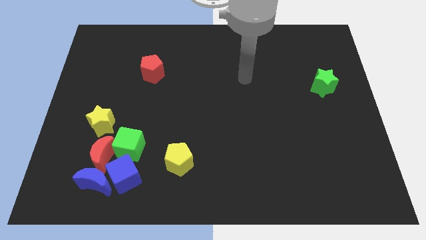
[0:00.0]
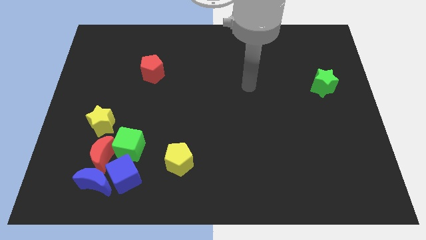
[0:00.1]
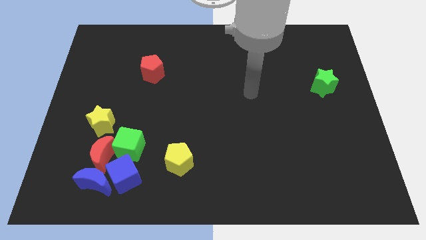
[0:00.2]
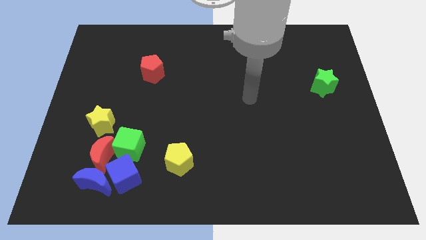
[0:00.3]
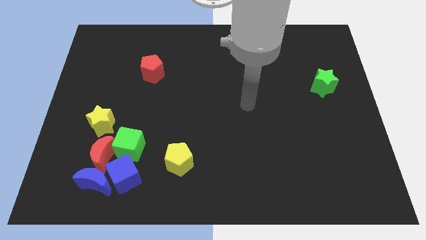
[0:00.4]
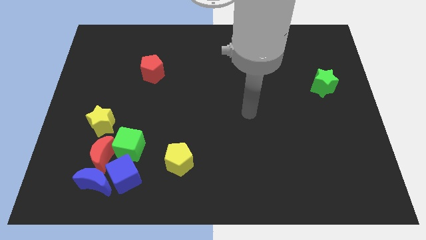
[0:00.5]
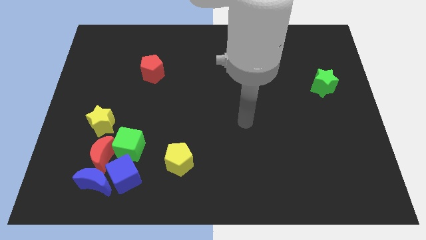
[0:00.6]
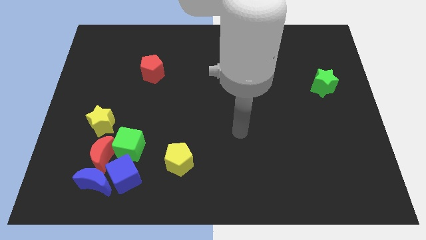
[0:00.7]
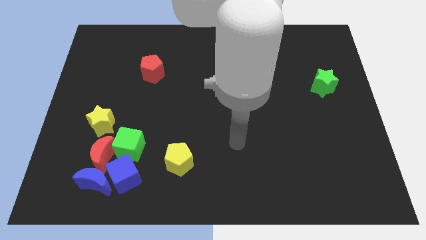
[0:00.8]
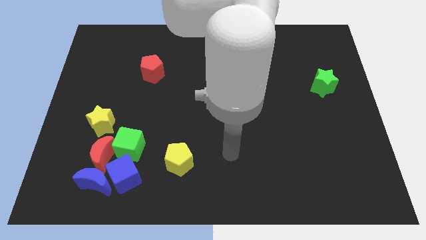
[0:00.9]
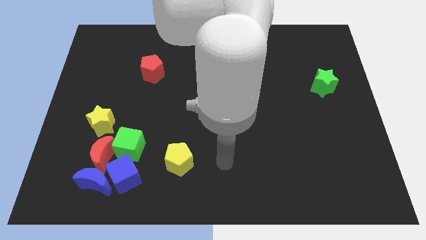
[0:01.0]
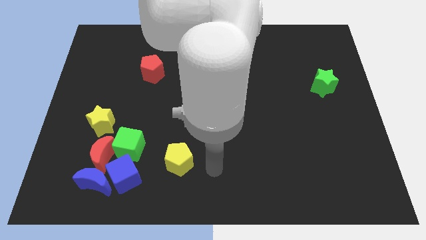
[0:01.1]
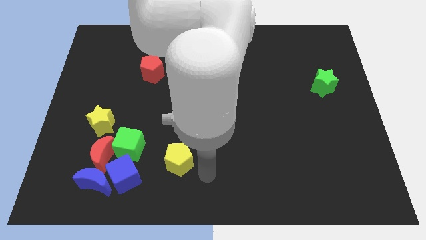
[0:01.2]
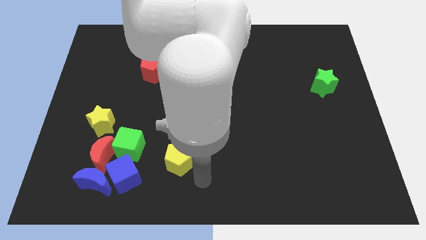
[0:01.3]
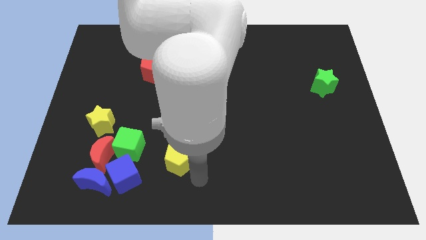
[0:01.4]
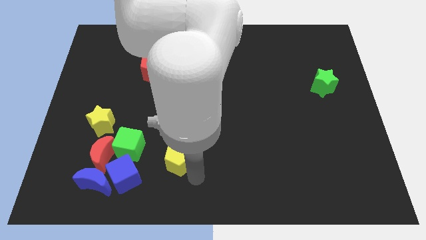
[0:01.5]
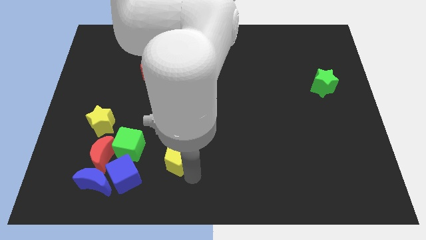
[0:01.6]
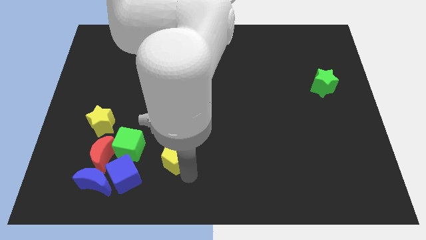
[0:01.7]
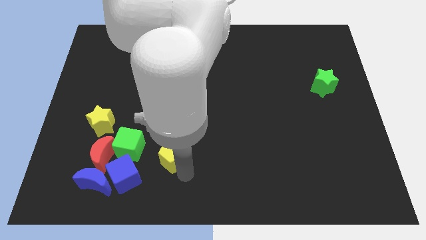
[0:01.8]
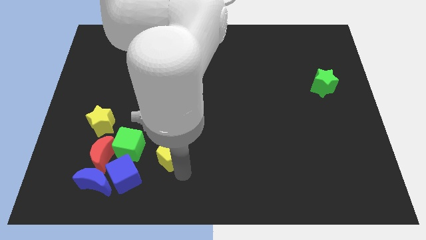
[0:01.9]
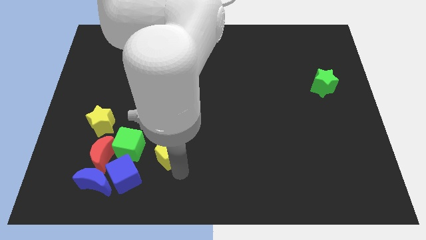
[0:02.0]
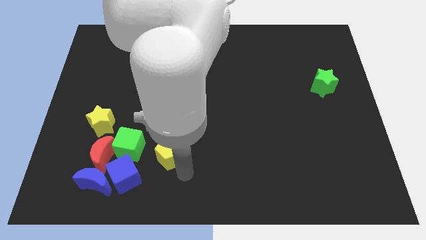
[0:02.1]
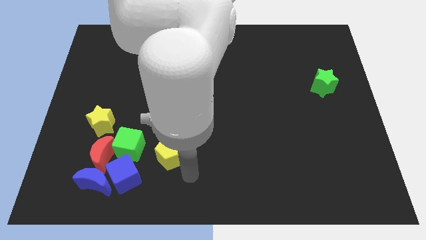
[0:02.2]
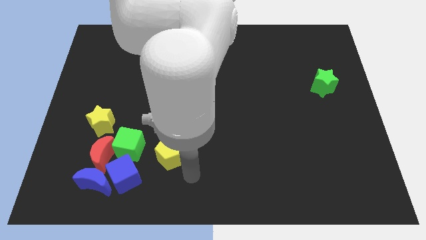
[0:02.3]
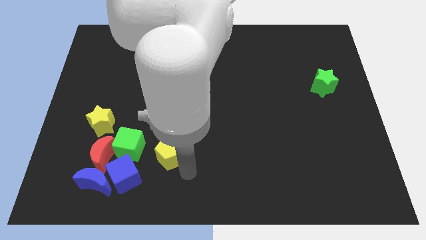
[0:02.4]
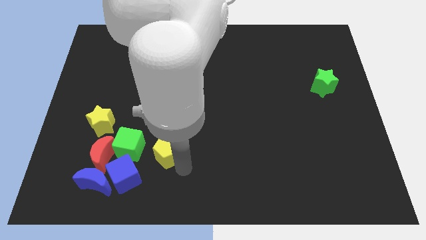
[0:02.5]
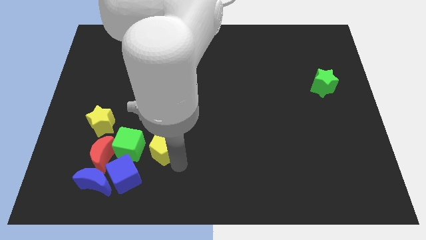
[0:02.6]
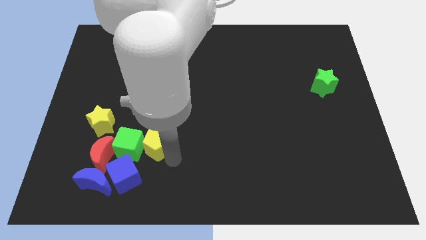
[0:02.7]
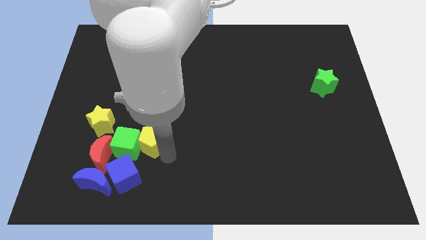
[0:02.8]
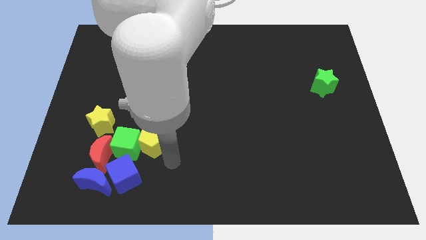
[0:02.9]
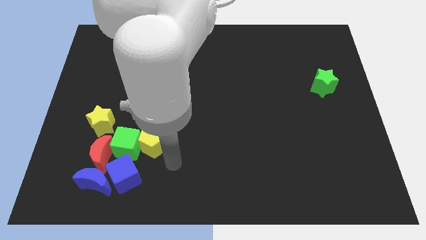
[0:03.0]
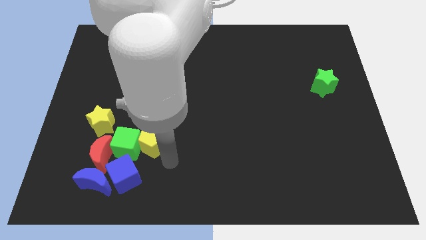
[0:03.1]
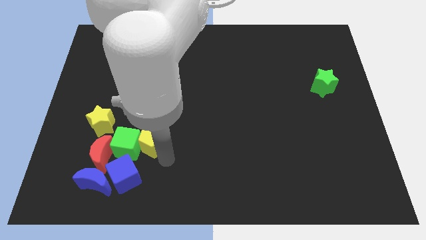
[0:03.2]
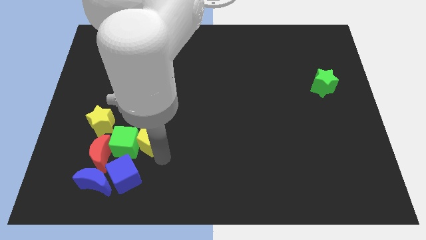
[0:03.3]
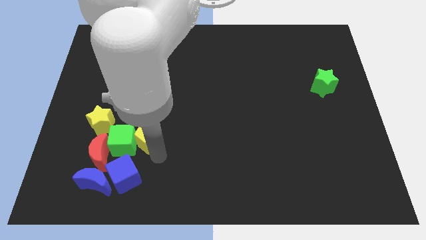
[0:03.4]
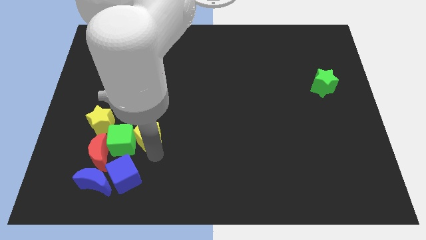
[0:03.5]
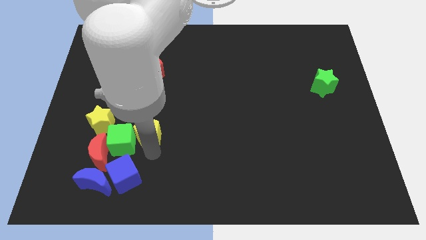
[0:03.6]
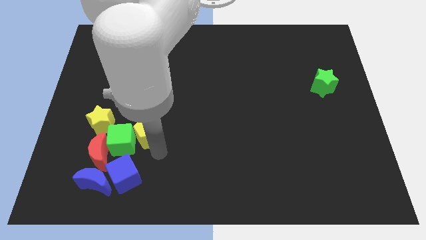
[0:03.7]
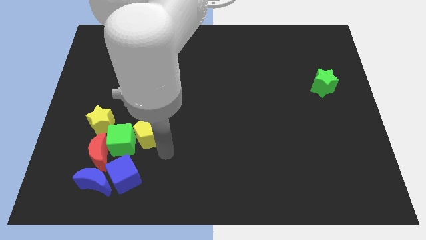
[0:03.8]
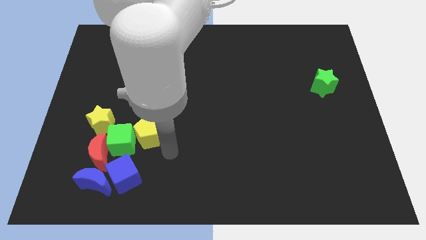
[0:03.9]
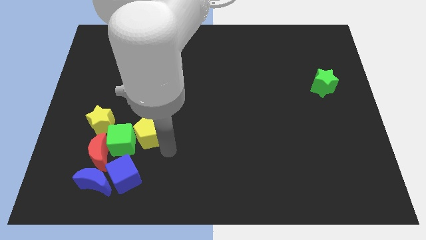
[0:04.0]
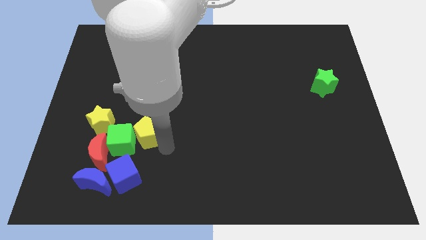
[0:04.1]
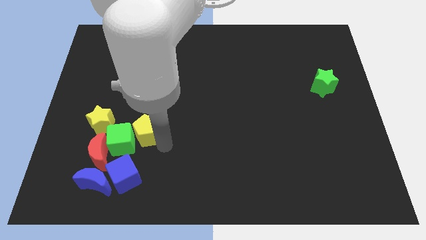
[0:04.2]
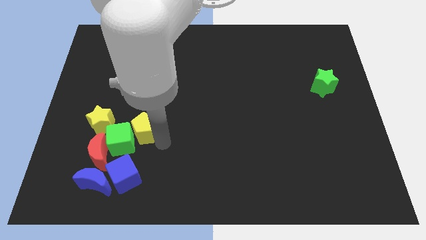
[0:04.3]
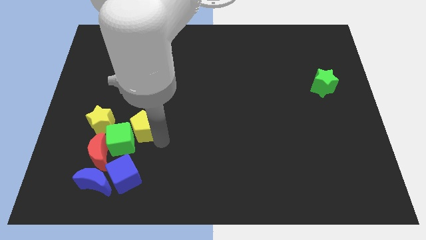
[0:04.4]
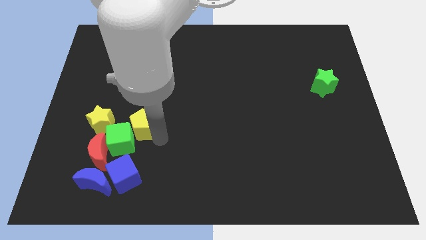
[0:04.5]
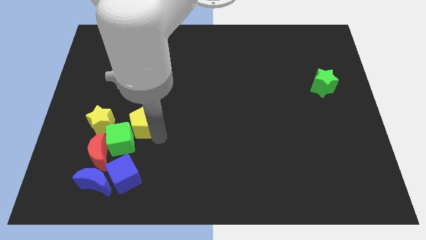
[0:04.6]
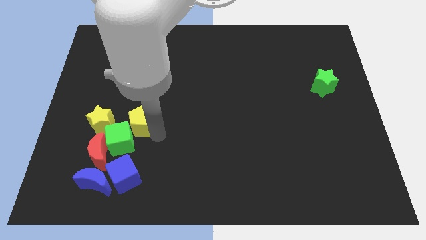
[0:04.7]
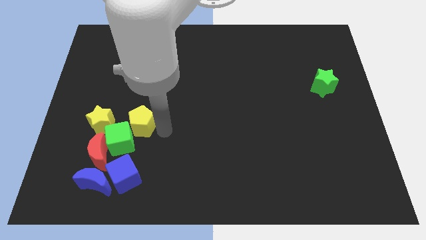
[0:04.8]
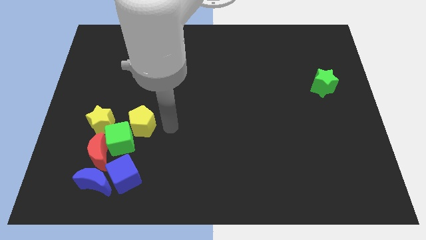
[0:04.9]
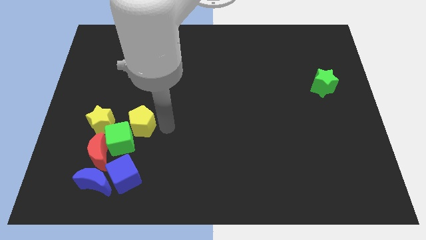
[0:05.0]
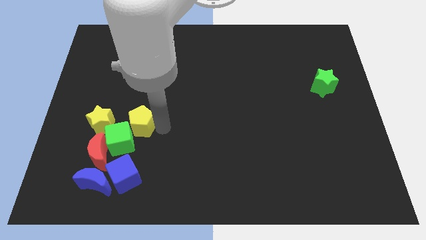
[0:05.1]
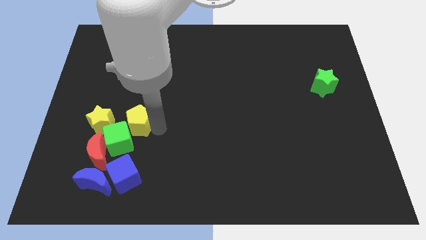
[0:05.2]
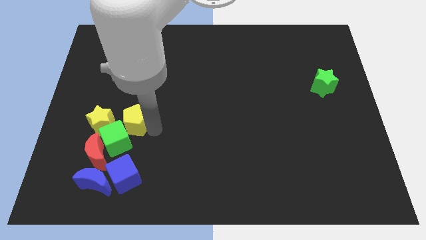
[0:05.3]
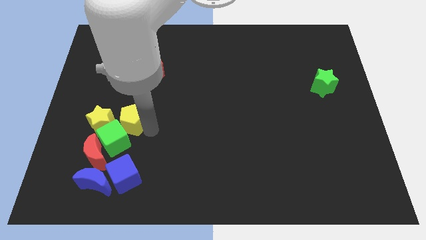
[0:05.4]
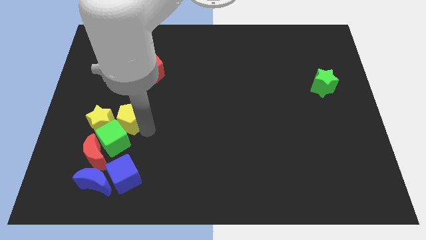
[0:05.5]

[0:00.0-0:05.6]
put the yellow pentagon close to the yellow star

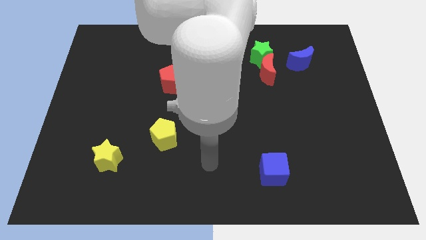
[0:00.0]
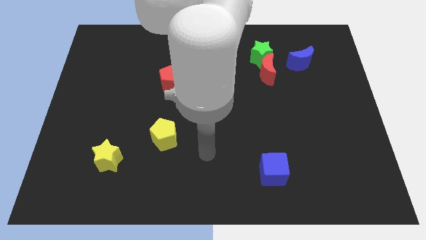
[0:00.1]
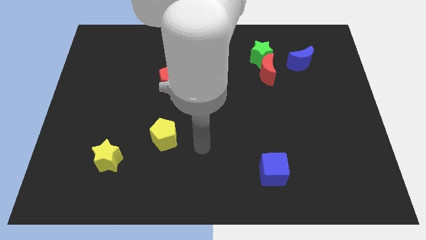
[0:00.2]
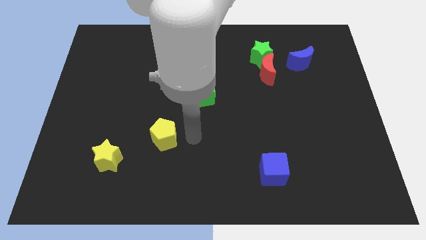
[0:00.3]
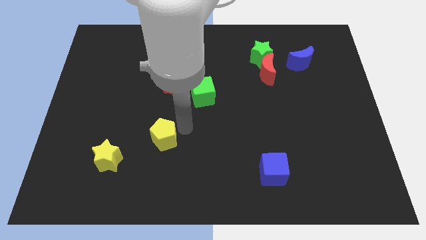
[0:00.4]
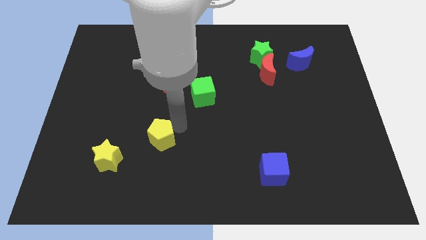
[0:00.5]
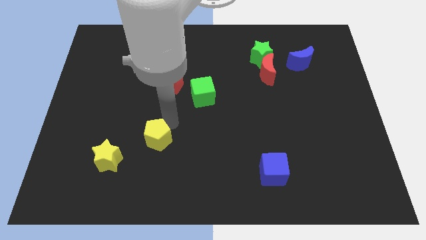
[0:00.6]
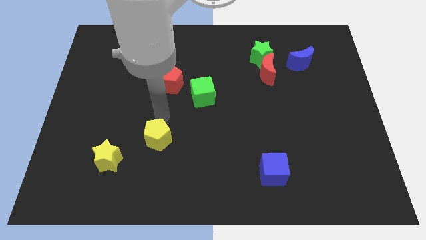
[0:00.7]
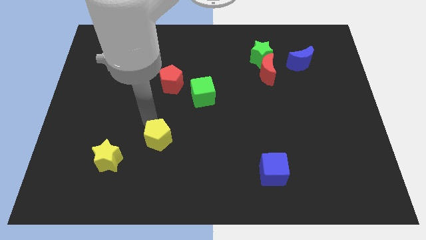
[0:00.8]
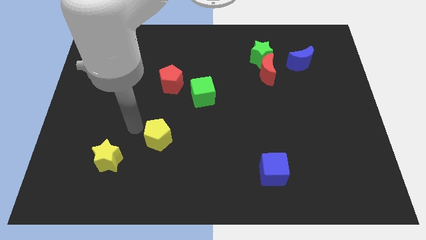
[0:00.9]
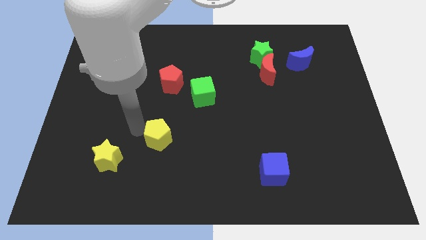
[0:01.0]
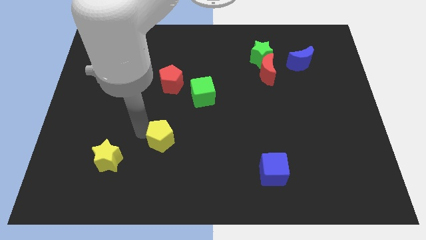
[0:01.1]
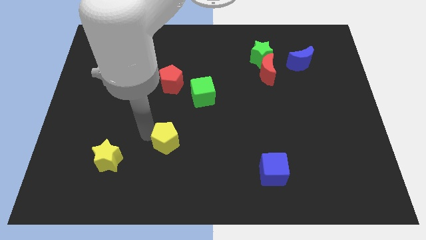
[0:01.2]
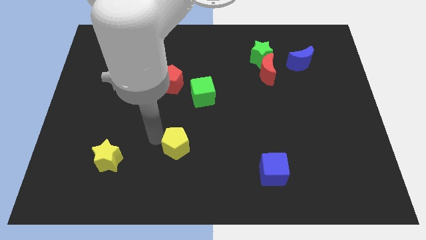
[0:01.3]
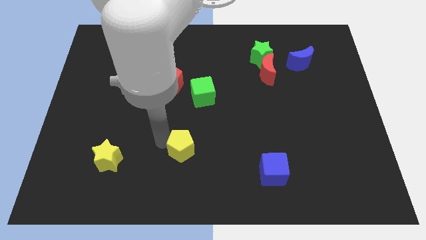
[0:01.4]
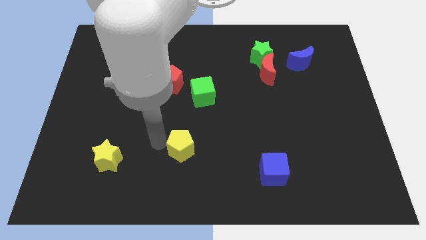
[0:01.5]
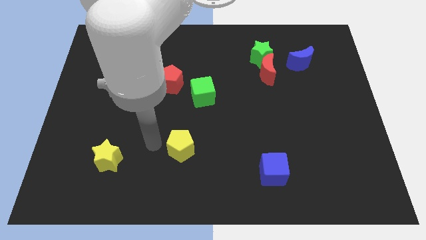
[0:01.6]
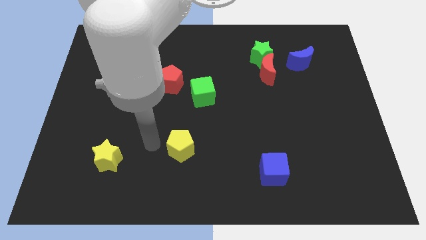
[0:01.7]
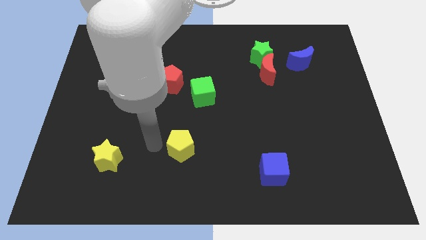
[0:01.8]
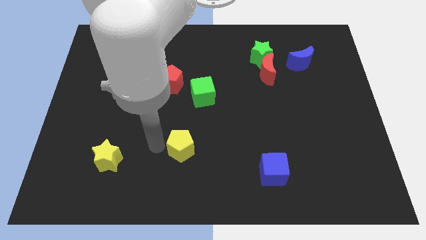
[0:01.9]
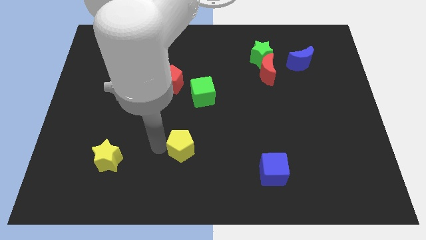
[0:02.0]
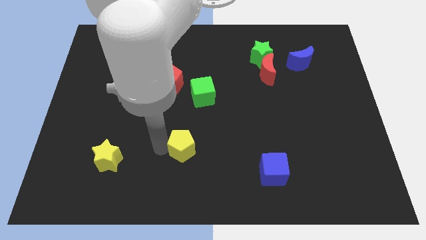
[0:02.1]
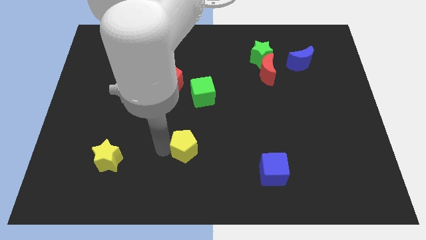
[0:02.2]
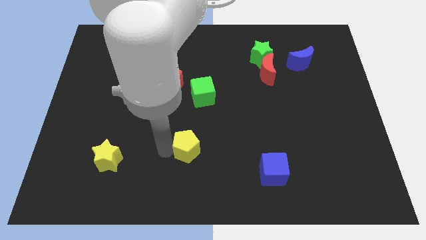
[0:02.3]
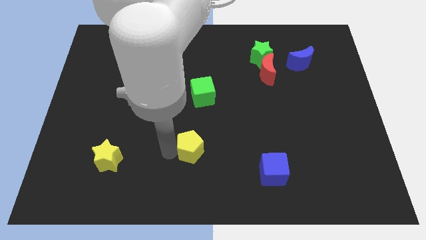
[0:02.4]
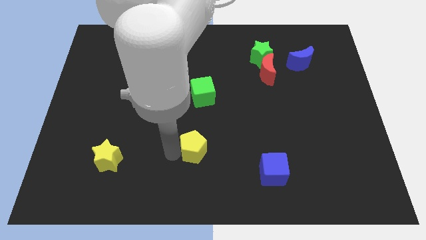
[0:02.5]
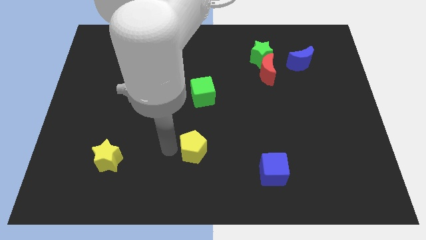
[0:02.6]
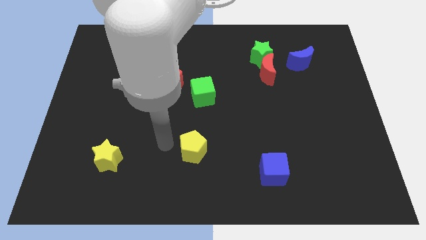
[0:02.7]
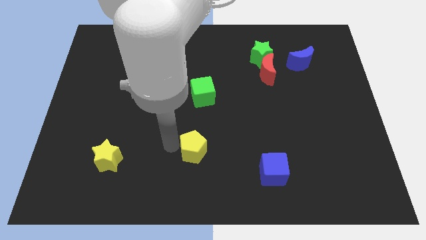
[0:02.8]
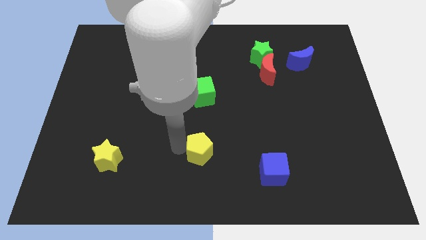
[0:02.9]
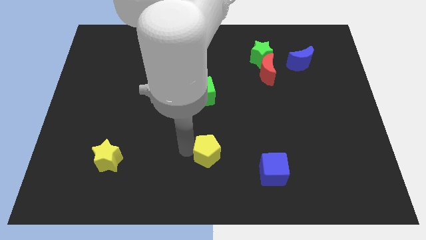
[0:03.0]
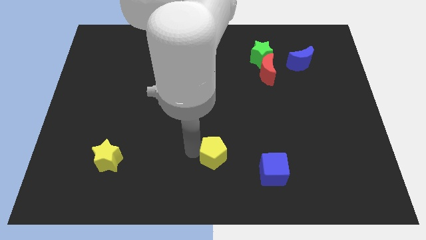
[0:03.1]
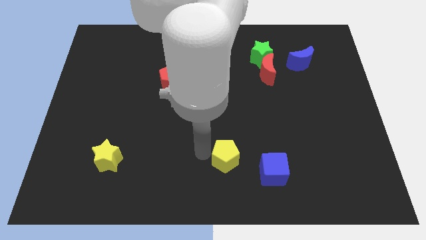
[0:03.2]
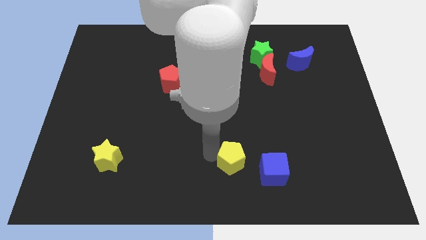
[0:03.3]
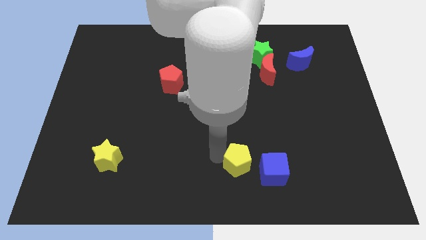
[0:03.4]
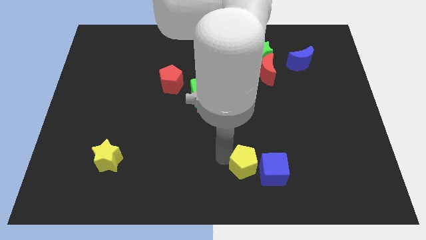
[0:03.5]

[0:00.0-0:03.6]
slide the yellow pentagon towards the blue cube
